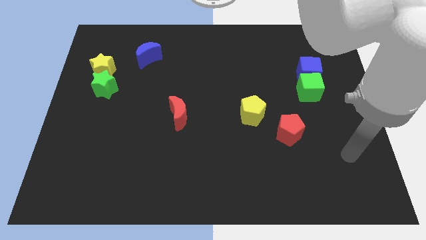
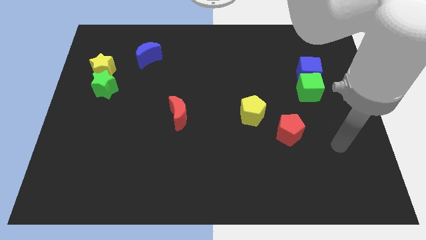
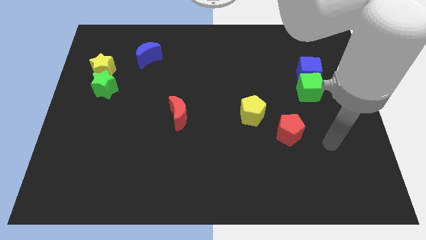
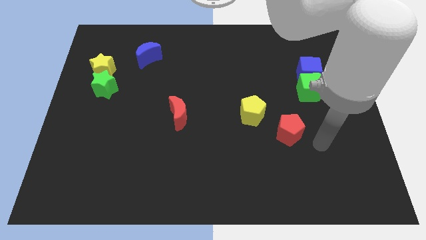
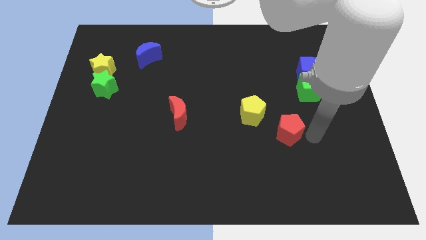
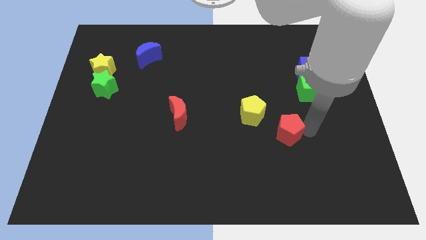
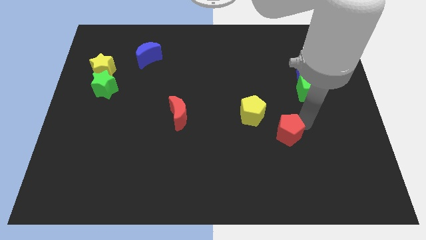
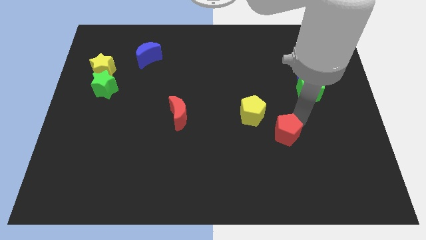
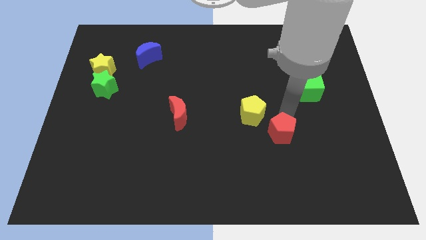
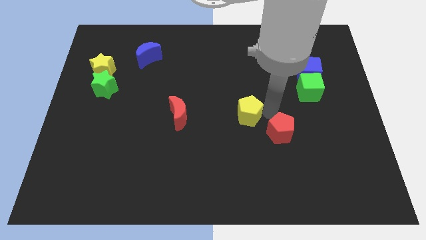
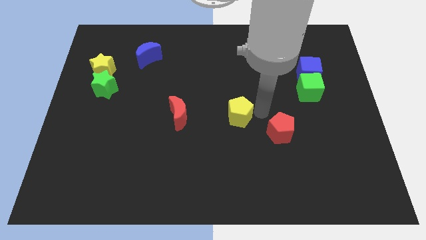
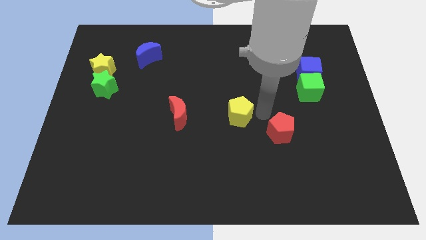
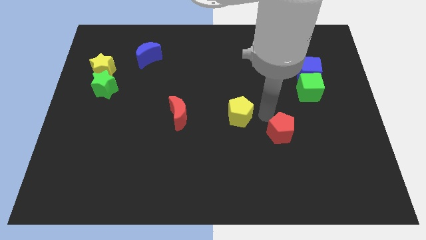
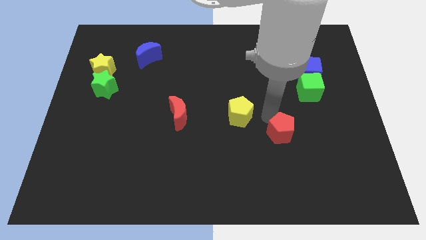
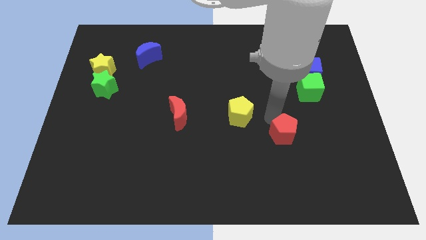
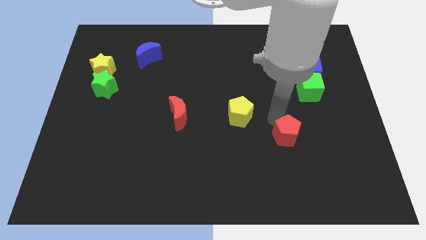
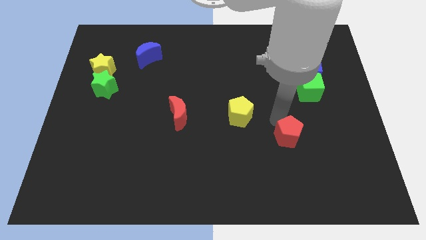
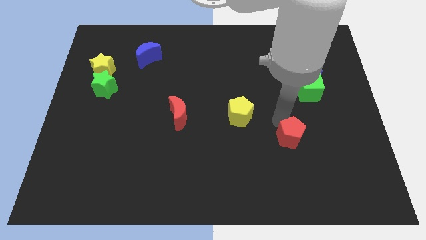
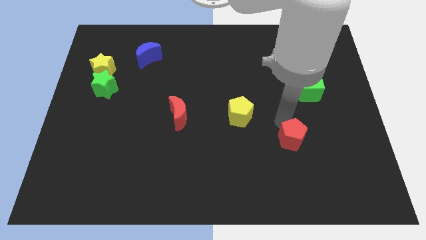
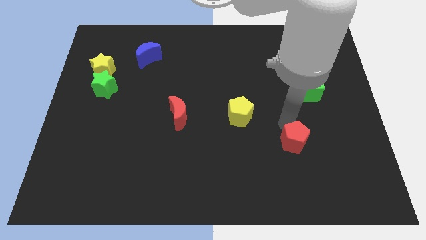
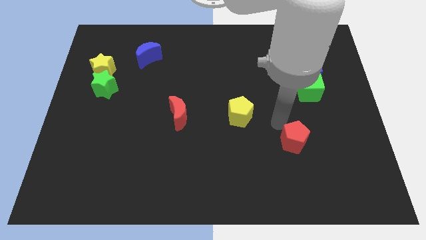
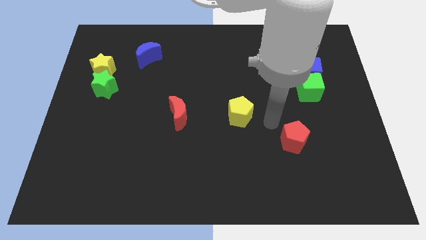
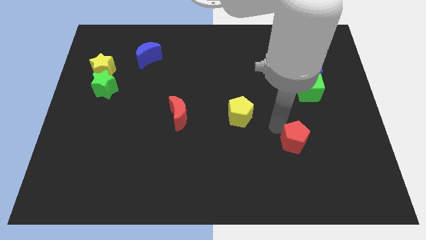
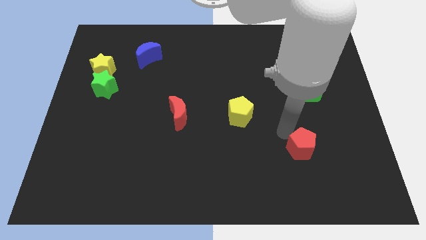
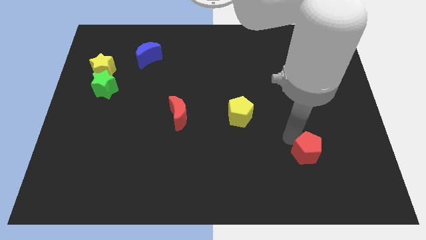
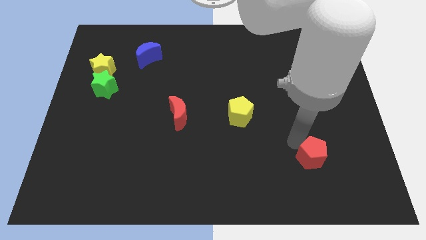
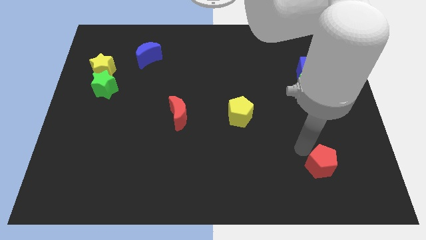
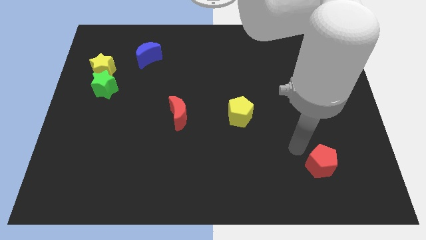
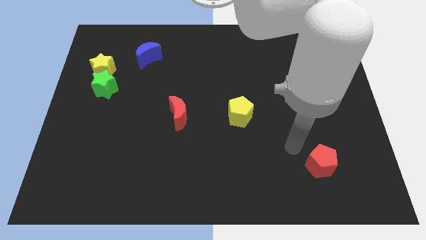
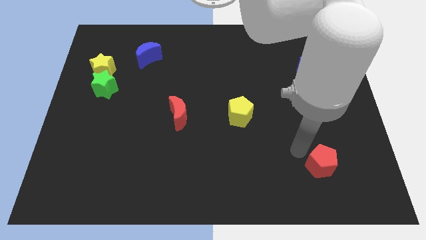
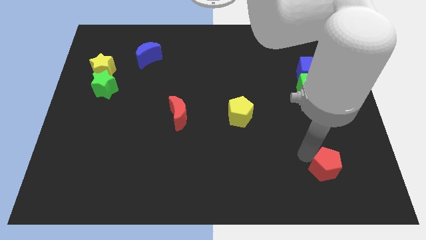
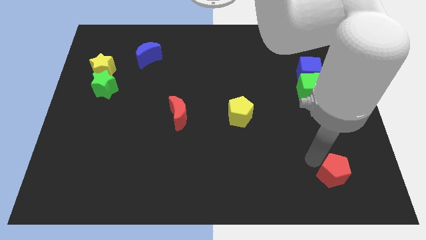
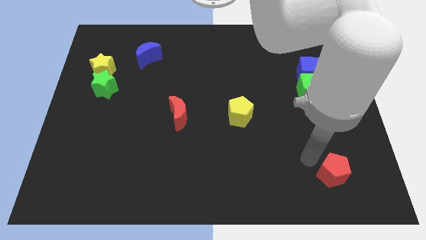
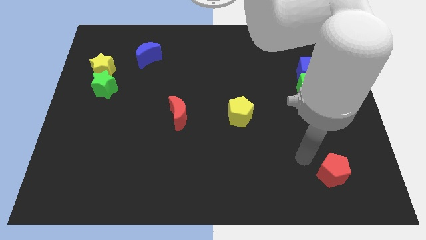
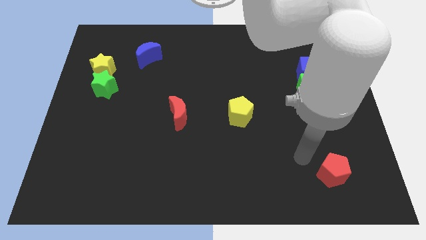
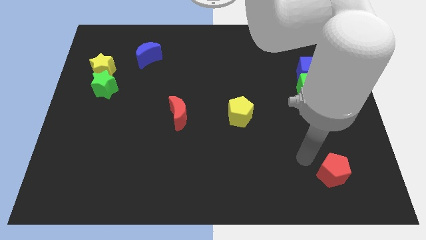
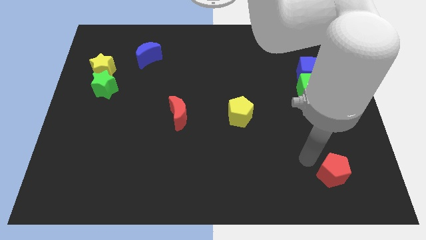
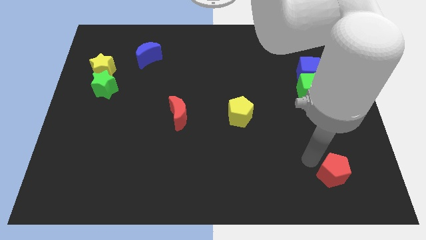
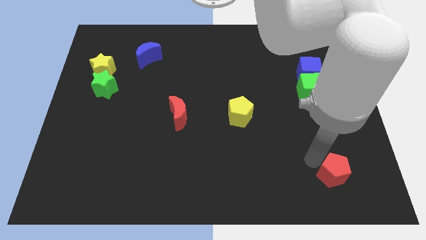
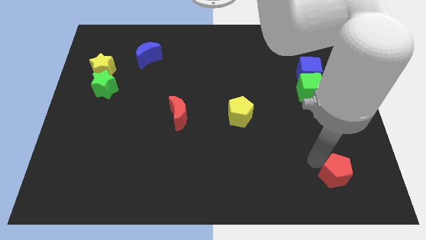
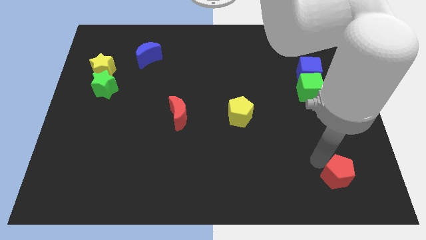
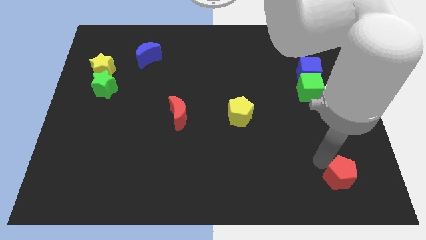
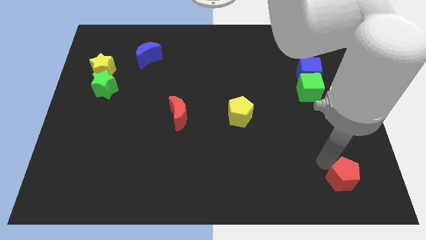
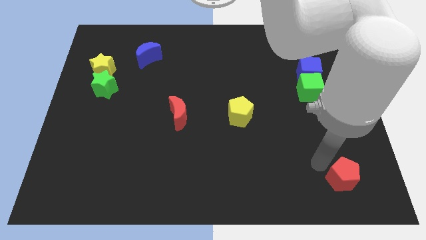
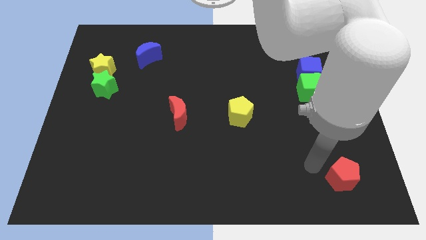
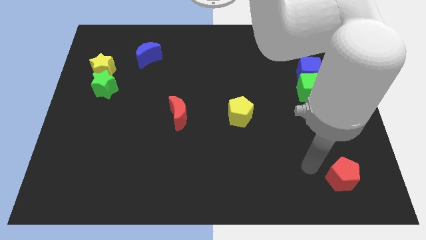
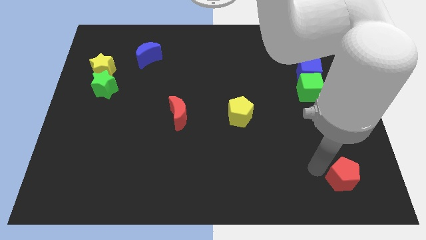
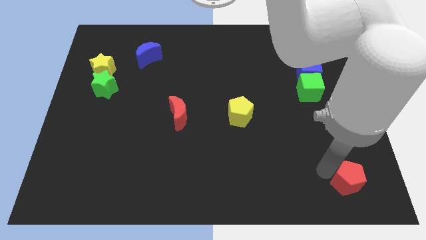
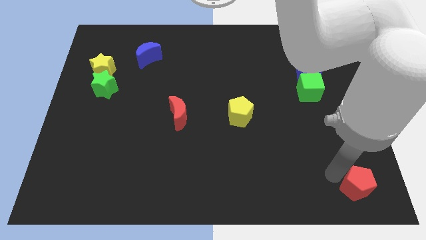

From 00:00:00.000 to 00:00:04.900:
move the red pentagon to the bottom right of the board

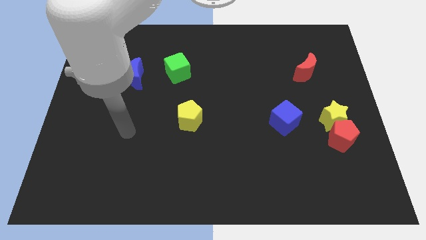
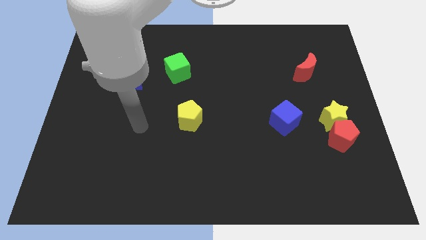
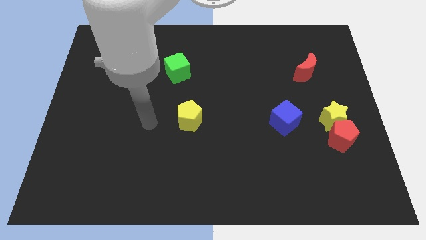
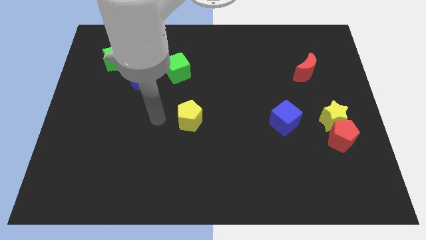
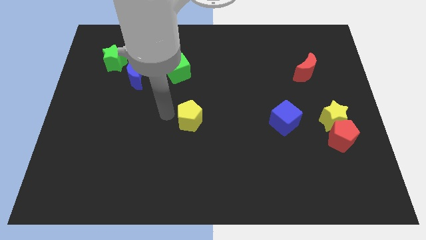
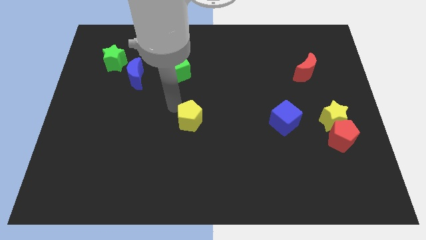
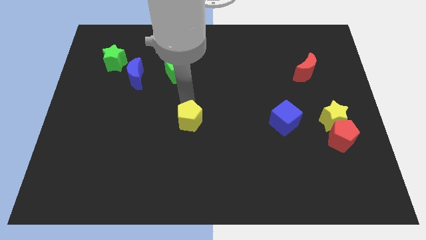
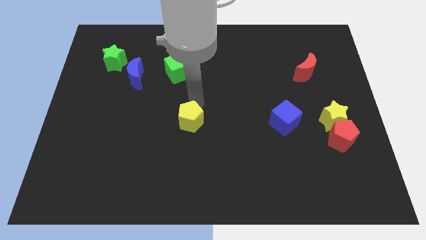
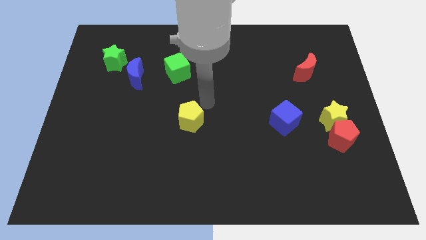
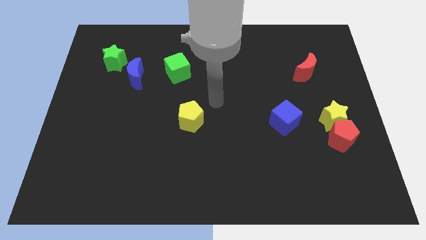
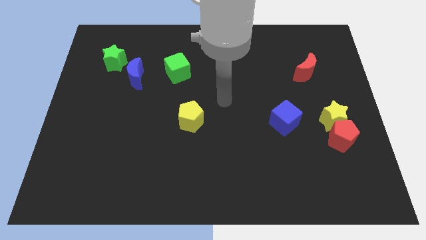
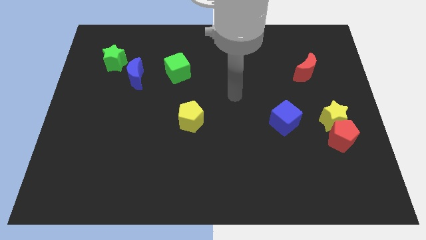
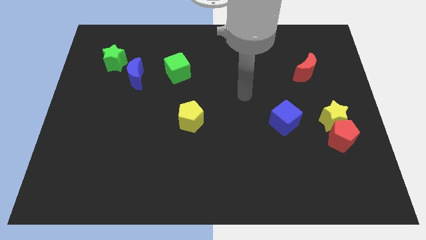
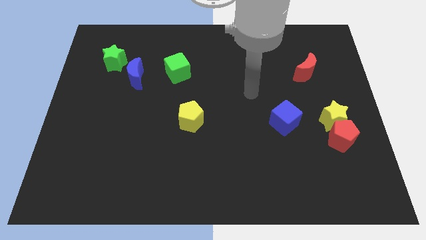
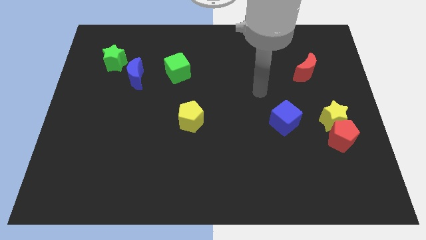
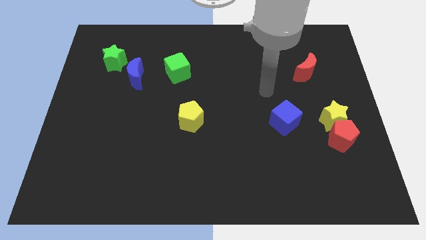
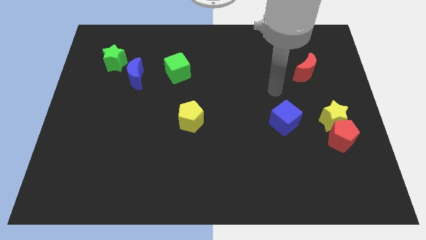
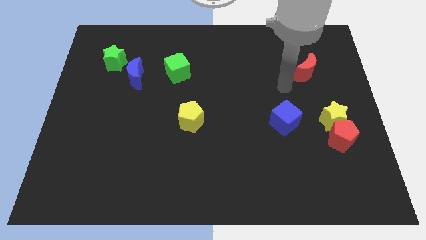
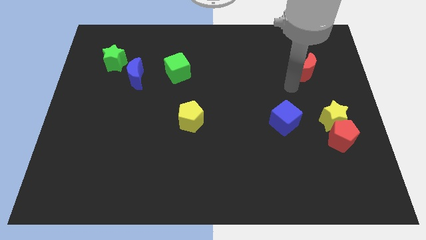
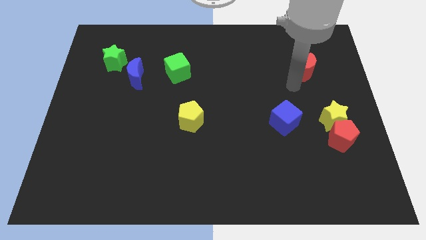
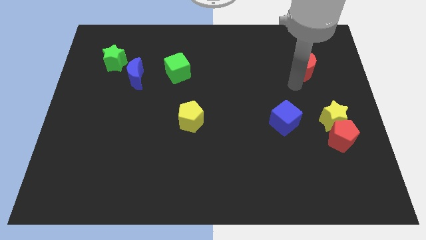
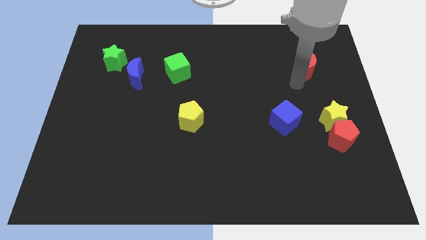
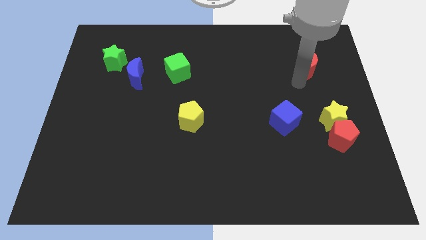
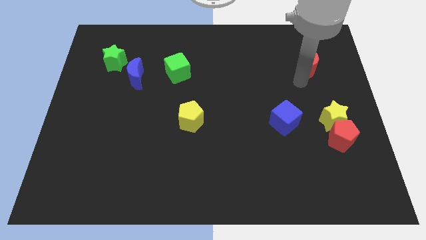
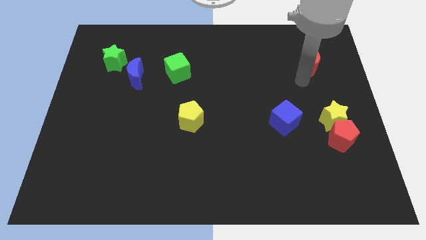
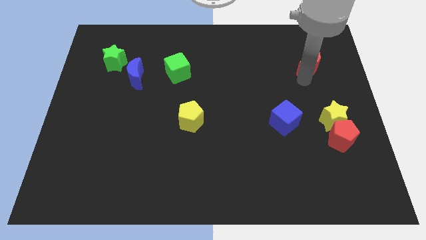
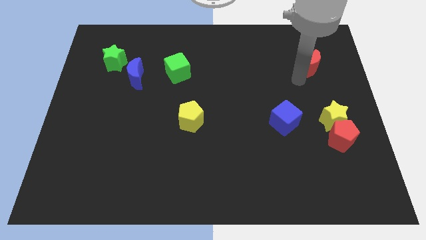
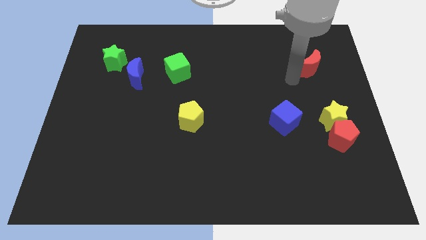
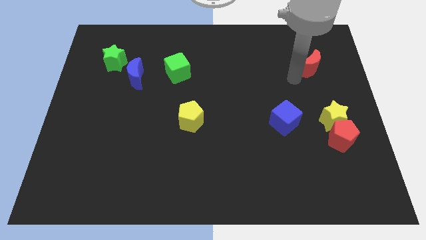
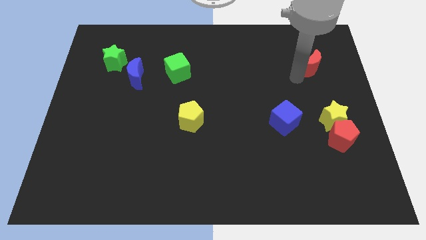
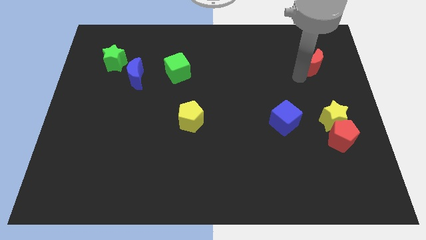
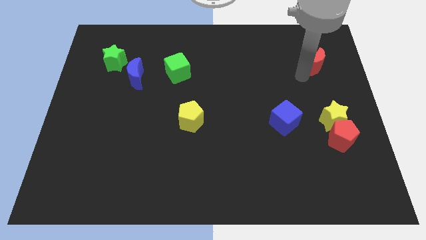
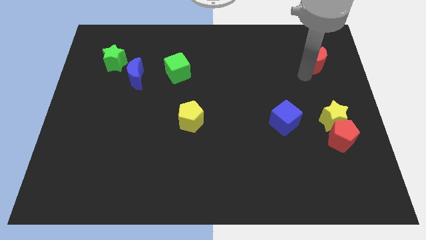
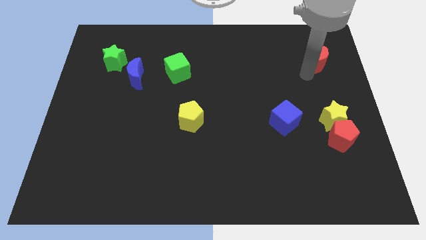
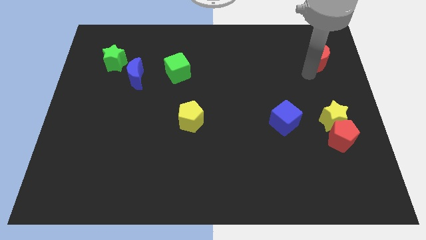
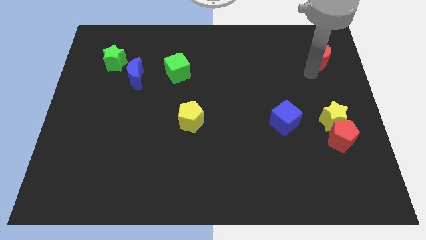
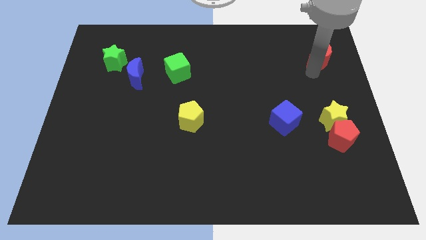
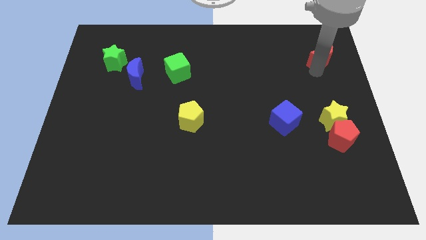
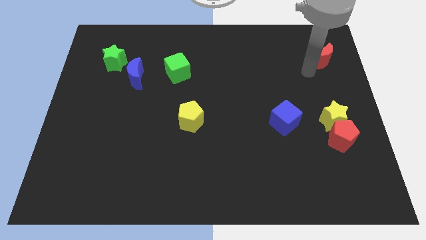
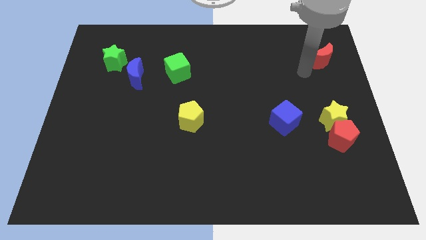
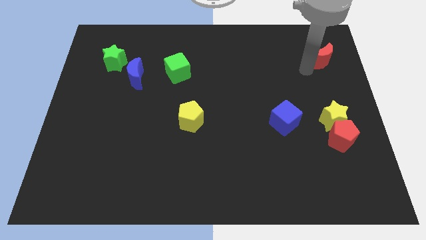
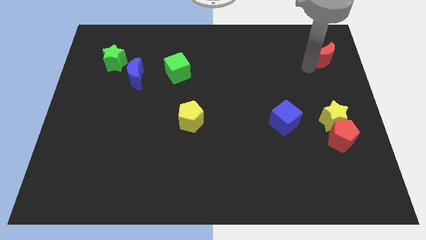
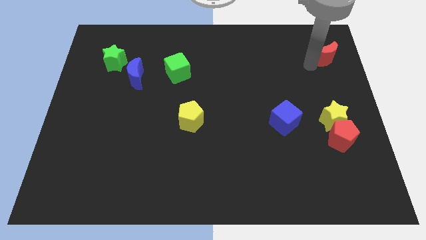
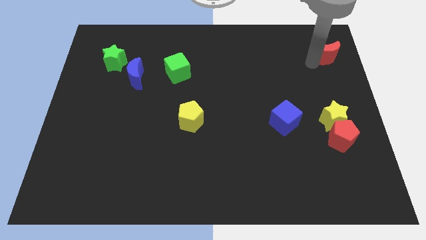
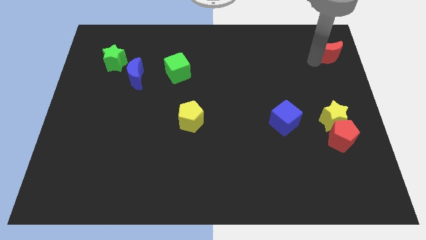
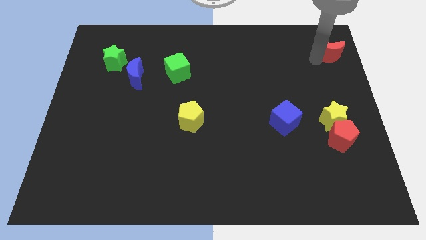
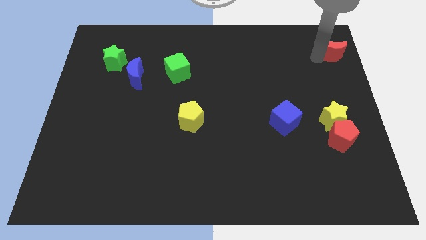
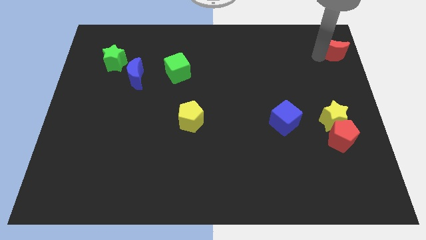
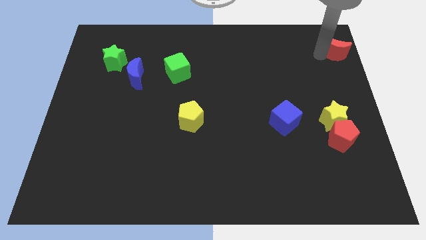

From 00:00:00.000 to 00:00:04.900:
slide the red moon to the upper right corner
